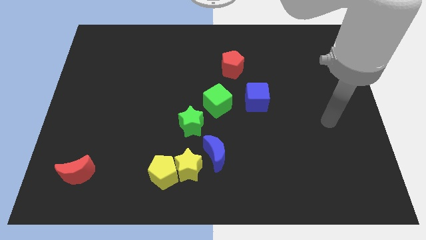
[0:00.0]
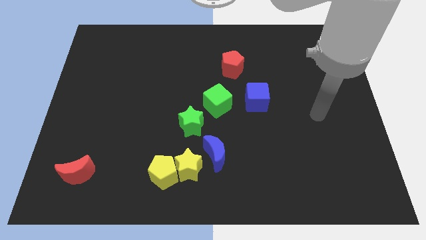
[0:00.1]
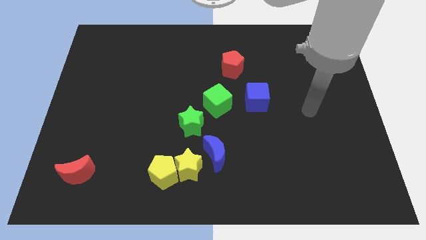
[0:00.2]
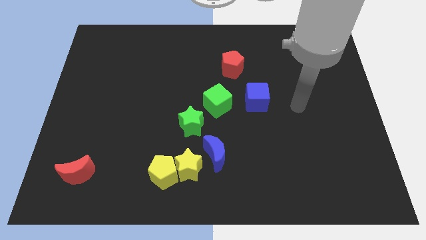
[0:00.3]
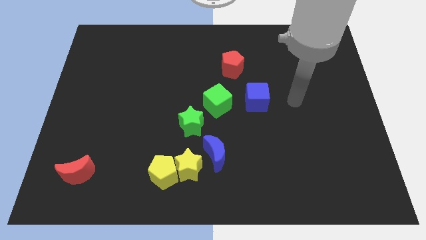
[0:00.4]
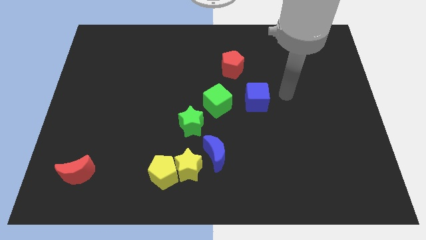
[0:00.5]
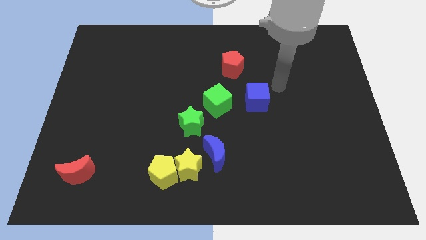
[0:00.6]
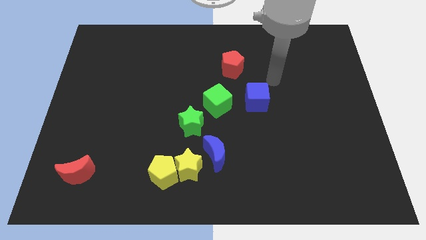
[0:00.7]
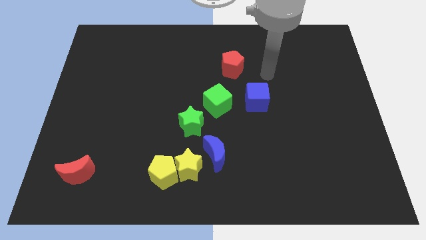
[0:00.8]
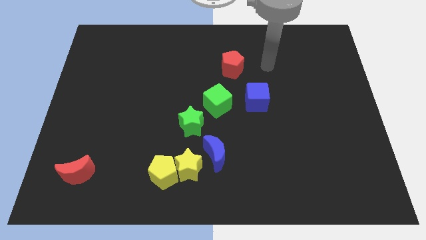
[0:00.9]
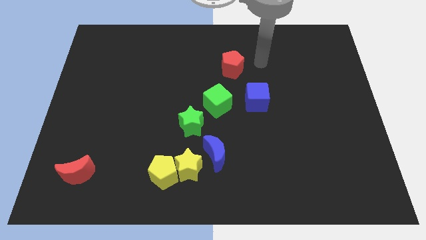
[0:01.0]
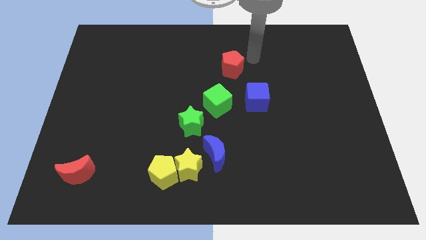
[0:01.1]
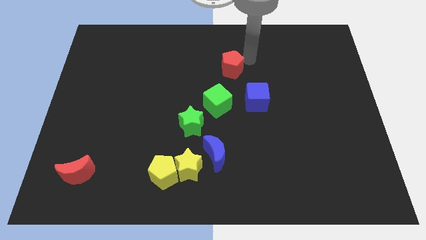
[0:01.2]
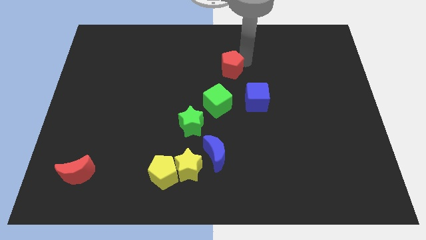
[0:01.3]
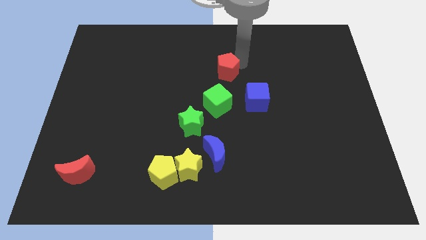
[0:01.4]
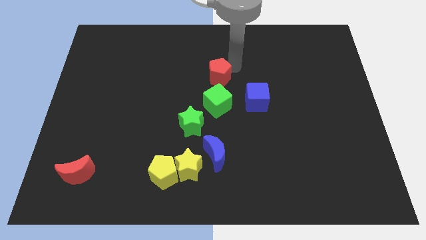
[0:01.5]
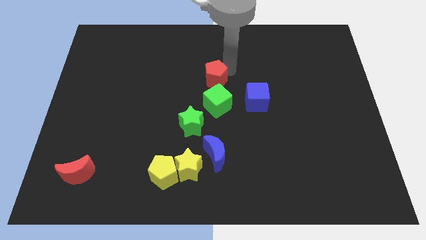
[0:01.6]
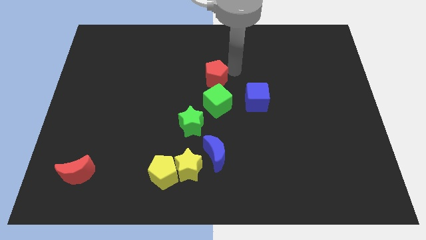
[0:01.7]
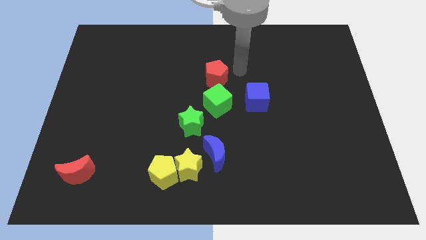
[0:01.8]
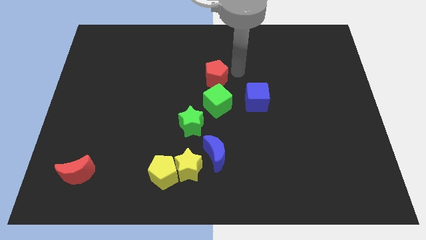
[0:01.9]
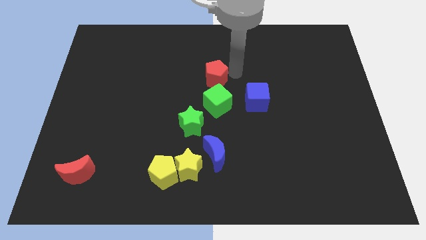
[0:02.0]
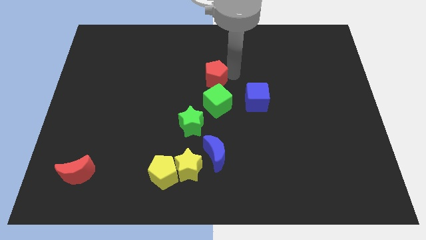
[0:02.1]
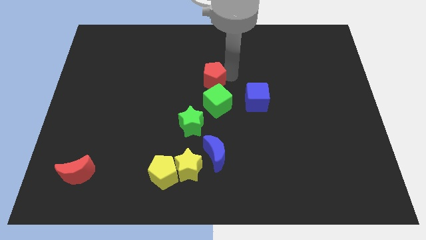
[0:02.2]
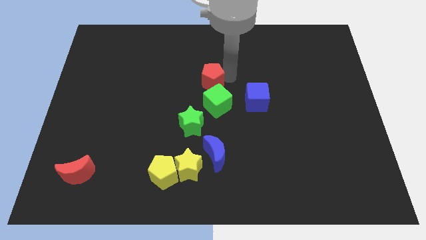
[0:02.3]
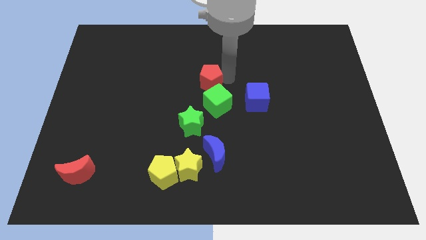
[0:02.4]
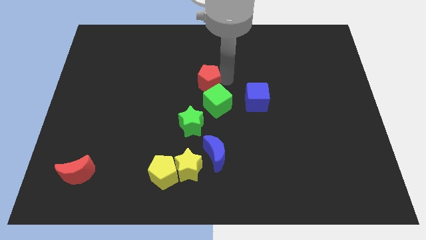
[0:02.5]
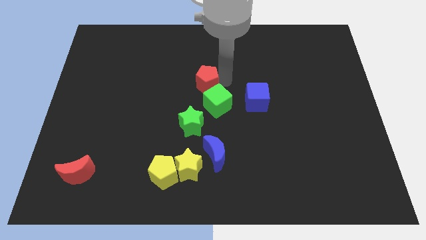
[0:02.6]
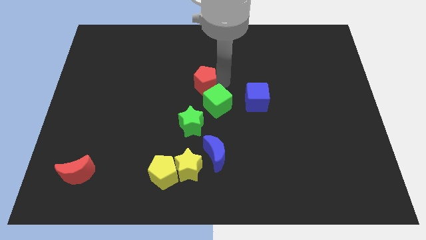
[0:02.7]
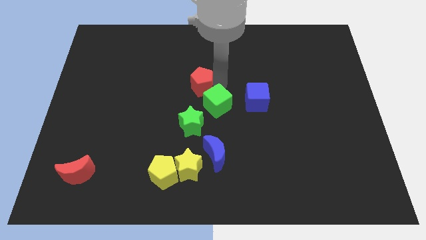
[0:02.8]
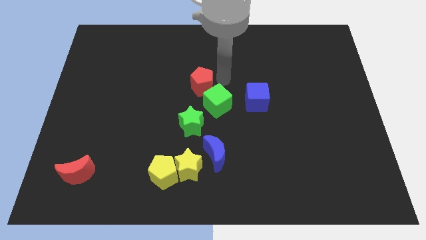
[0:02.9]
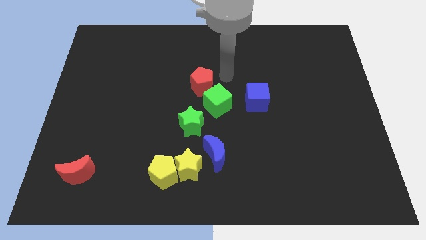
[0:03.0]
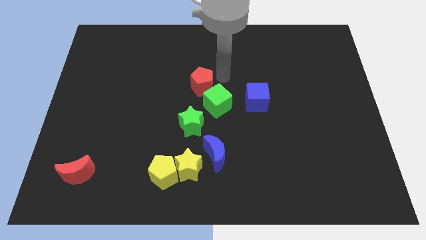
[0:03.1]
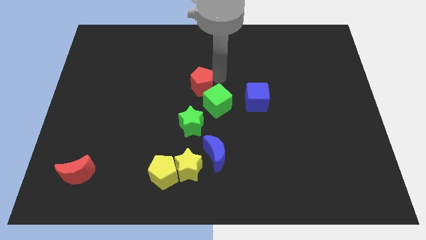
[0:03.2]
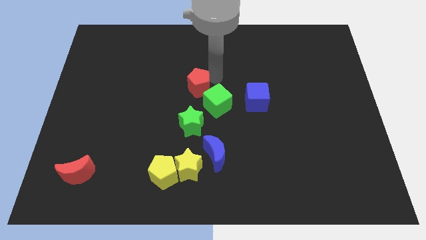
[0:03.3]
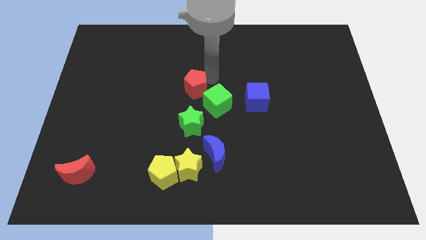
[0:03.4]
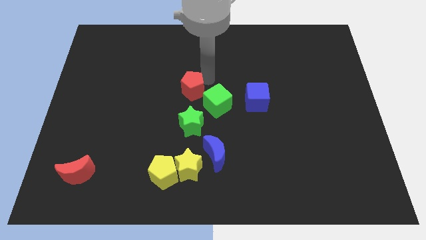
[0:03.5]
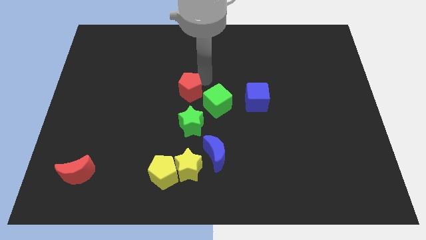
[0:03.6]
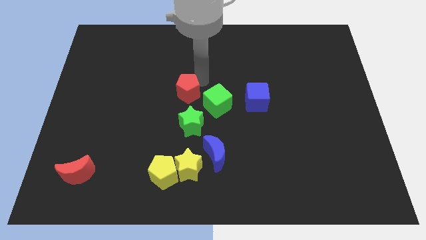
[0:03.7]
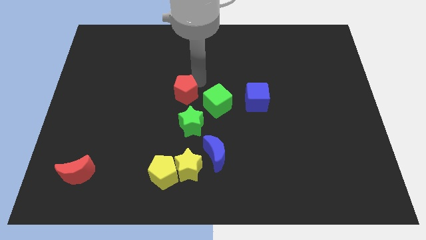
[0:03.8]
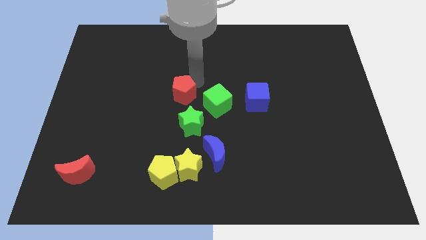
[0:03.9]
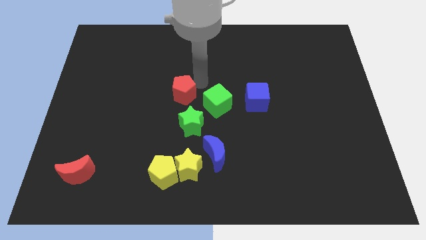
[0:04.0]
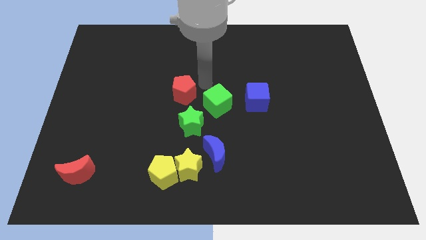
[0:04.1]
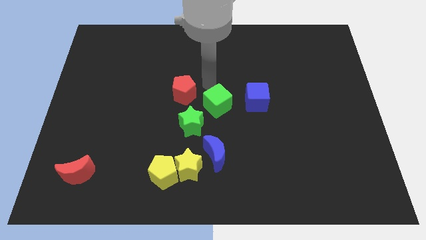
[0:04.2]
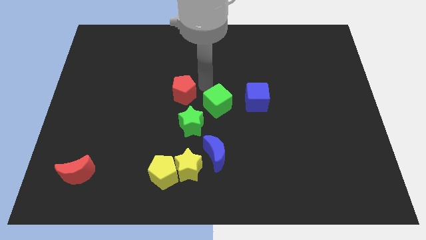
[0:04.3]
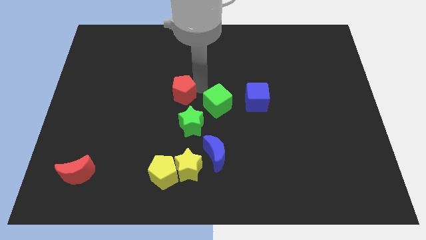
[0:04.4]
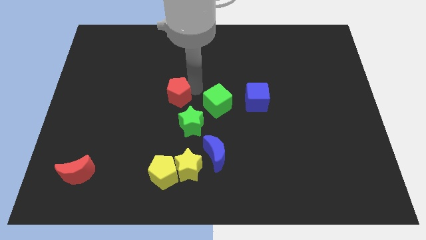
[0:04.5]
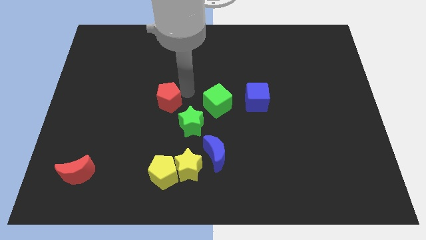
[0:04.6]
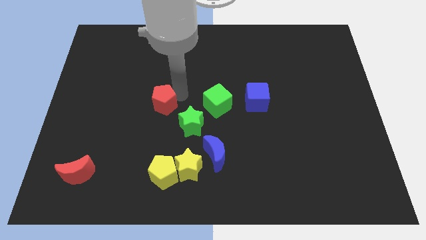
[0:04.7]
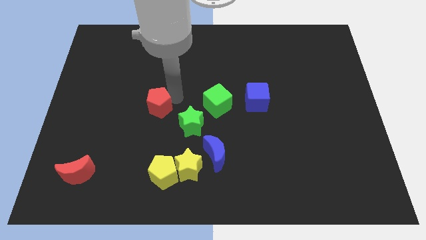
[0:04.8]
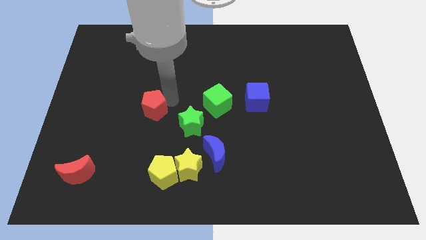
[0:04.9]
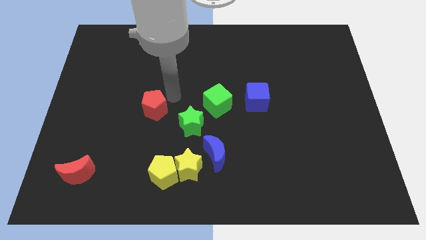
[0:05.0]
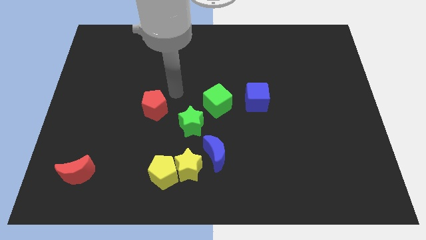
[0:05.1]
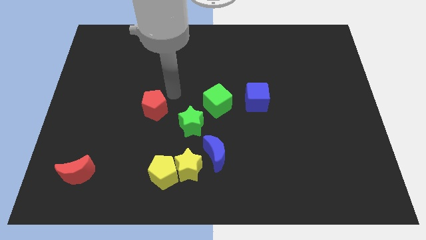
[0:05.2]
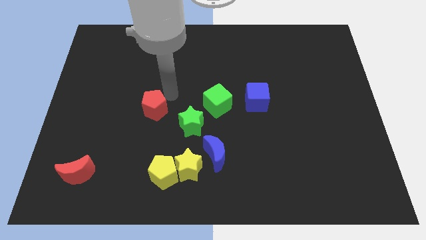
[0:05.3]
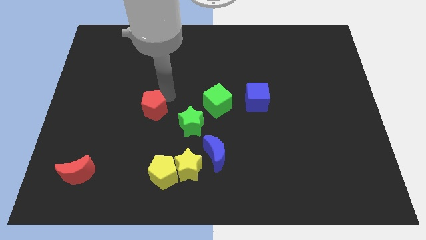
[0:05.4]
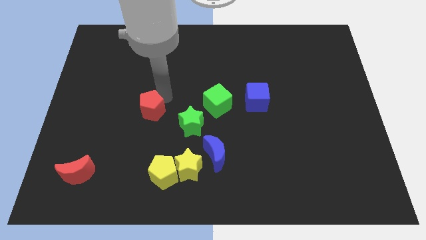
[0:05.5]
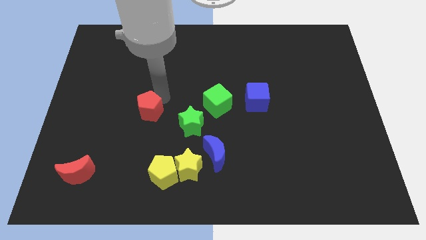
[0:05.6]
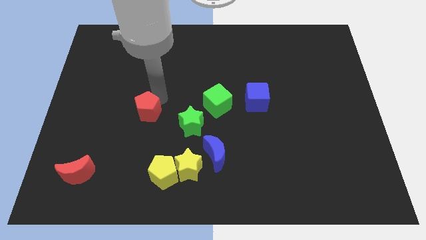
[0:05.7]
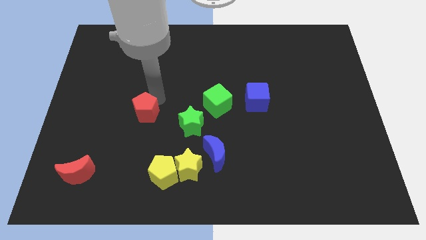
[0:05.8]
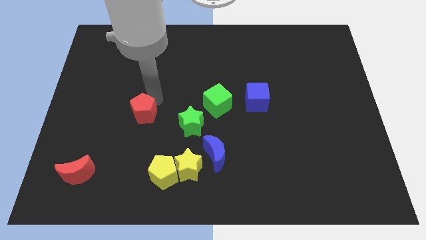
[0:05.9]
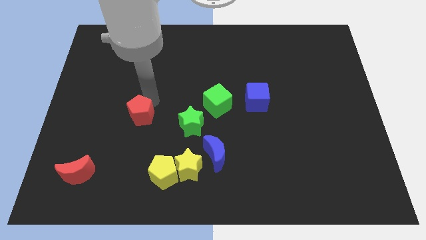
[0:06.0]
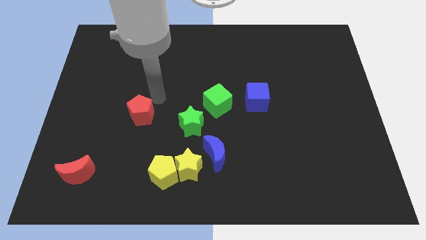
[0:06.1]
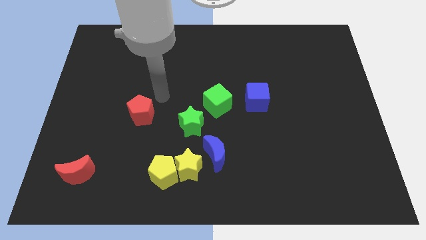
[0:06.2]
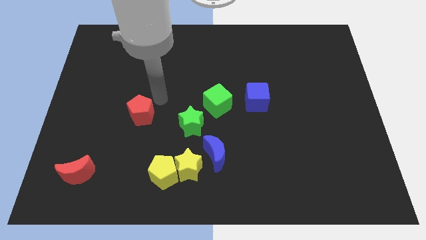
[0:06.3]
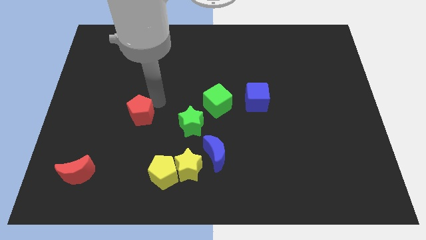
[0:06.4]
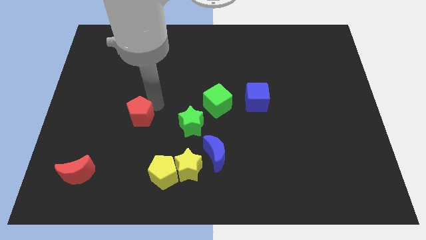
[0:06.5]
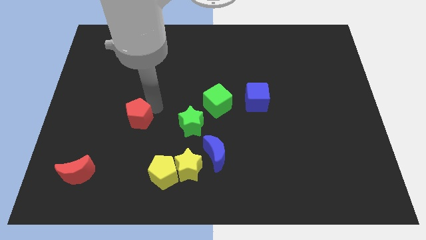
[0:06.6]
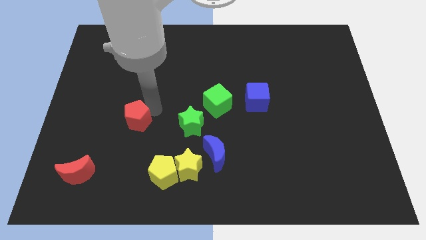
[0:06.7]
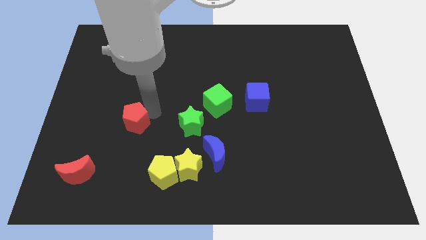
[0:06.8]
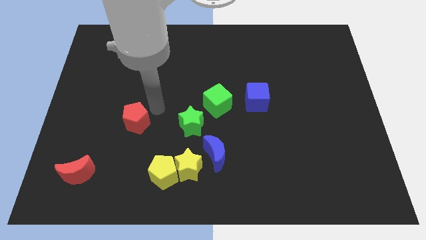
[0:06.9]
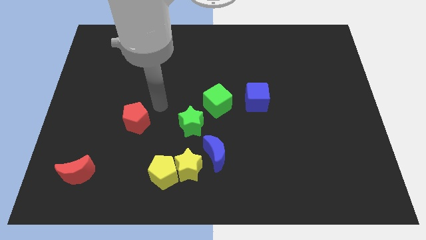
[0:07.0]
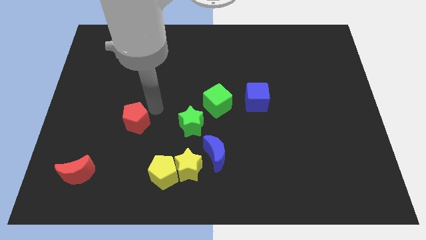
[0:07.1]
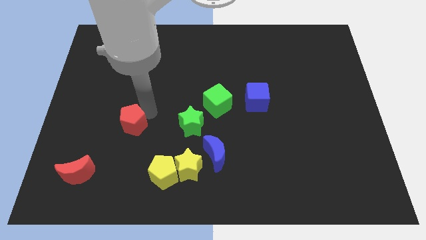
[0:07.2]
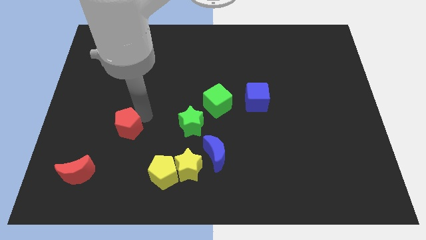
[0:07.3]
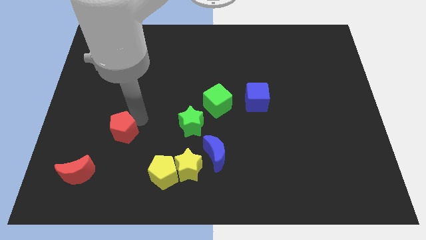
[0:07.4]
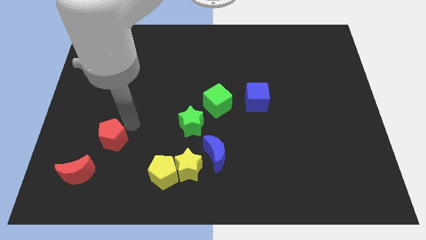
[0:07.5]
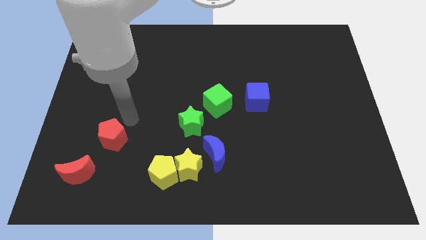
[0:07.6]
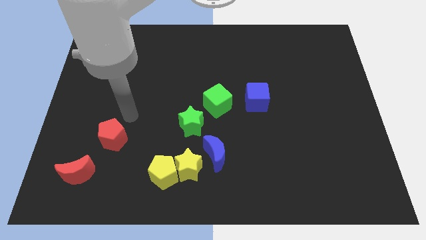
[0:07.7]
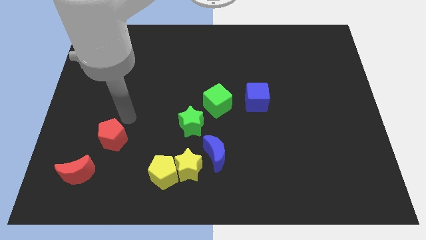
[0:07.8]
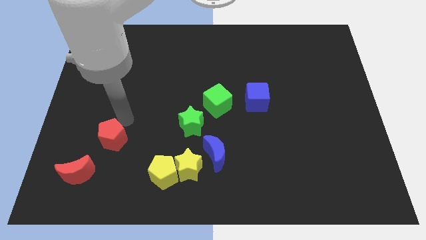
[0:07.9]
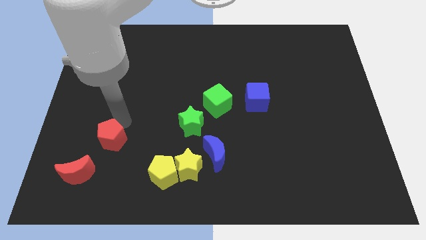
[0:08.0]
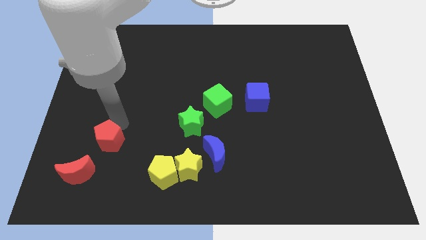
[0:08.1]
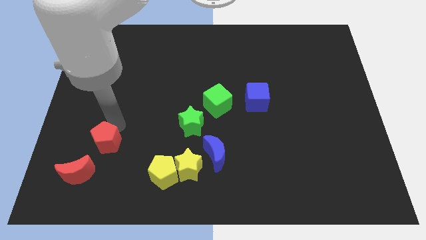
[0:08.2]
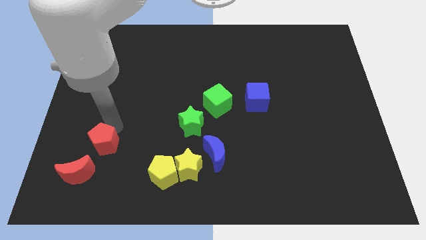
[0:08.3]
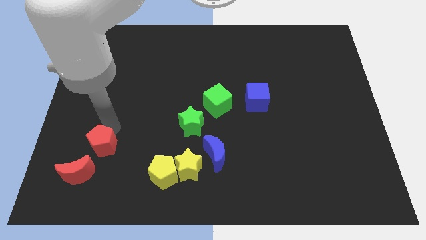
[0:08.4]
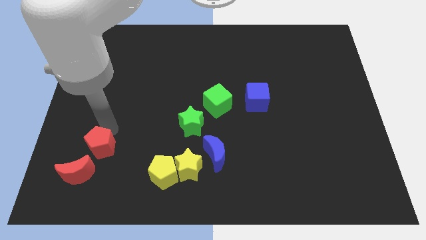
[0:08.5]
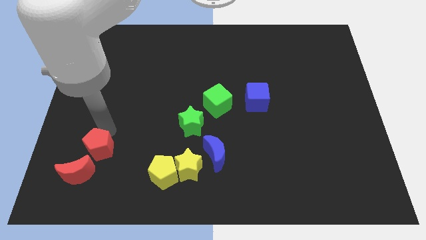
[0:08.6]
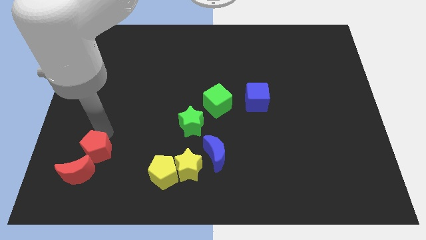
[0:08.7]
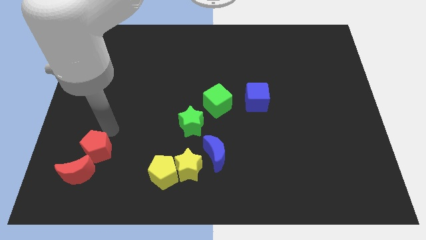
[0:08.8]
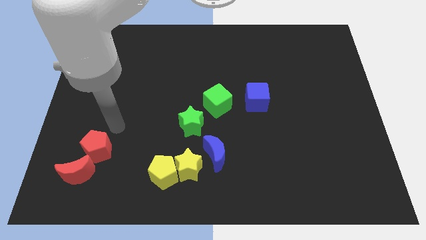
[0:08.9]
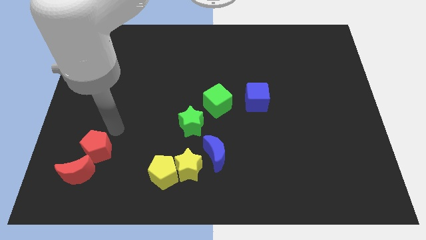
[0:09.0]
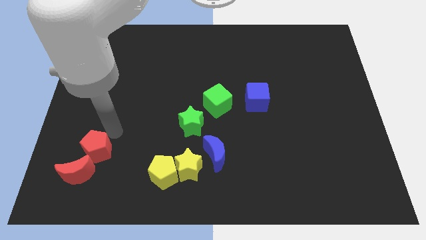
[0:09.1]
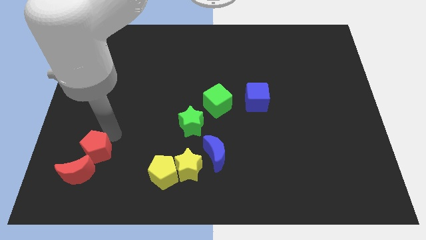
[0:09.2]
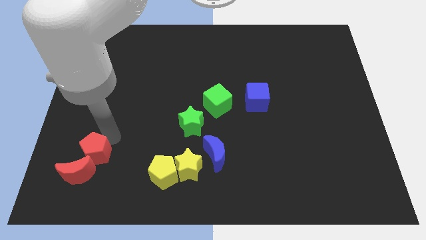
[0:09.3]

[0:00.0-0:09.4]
push the red pentagon next to the red moon
